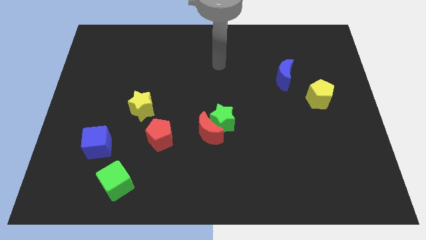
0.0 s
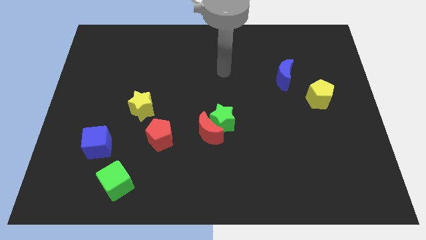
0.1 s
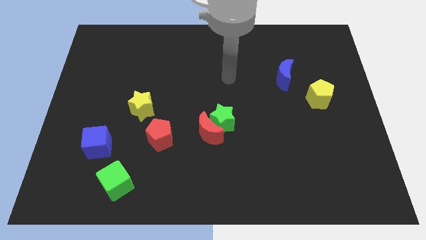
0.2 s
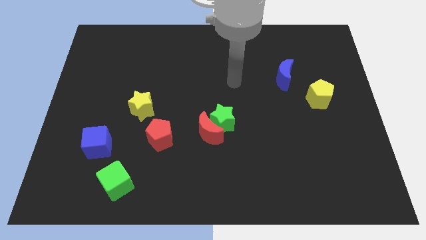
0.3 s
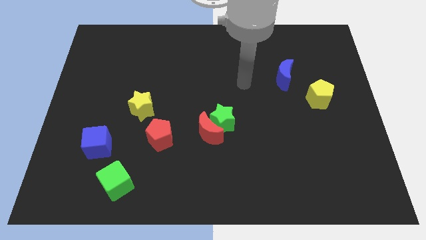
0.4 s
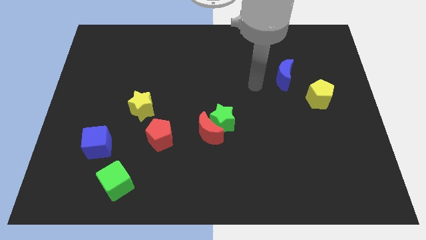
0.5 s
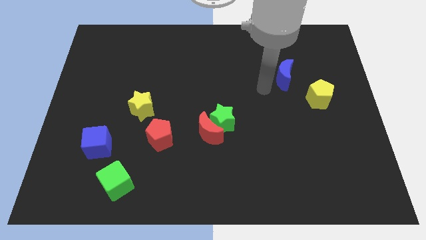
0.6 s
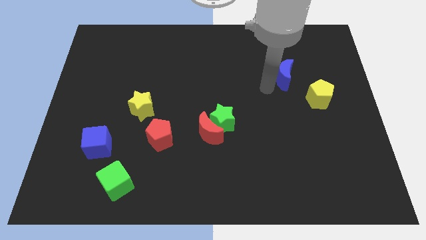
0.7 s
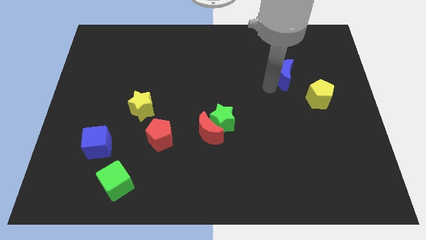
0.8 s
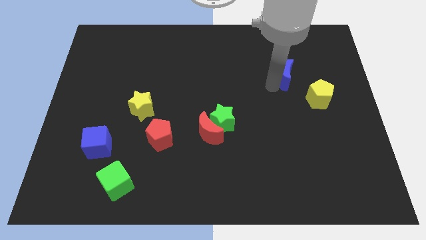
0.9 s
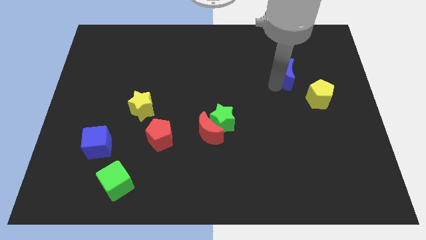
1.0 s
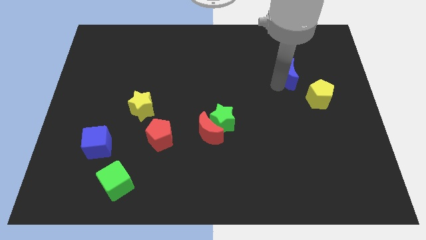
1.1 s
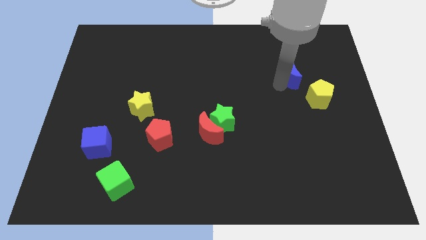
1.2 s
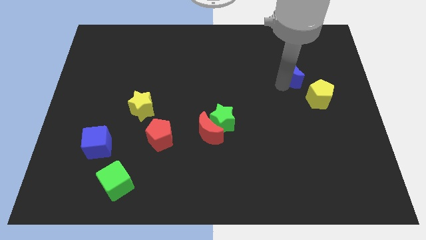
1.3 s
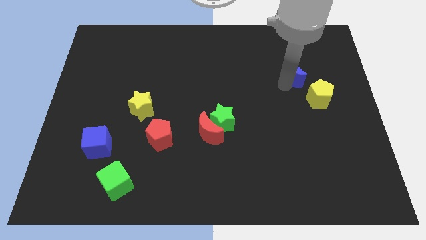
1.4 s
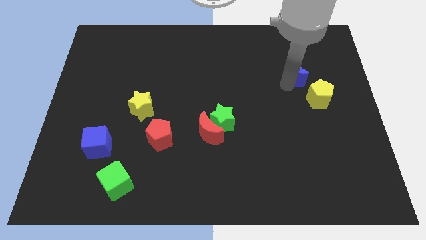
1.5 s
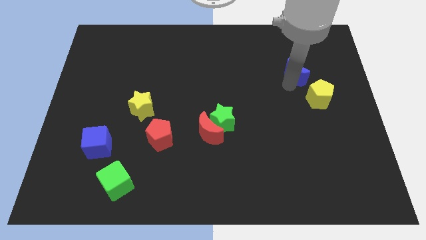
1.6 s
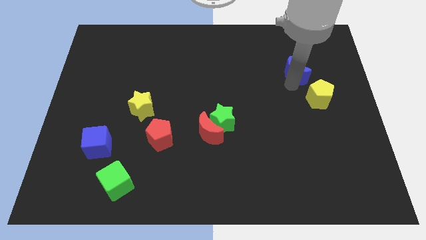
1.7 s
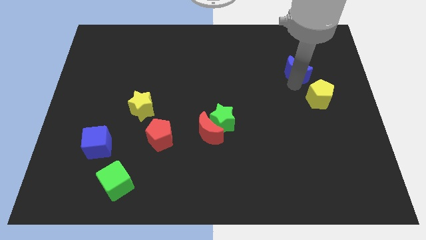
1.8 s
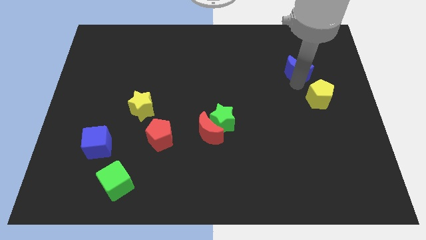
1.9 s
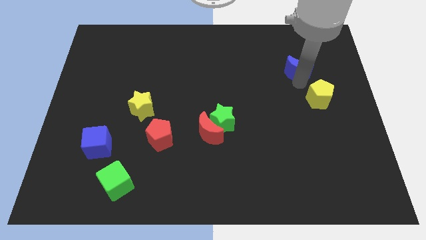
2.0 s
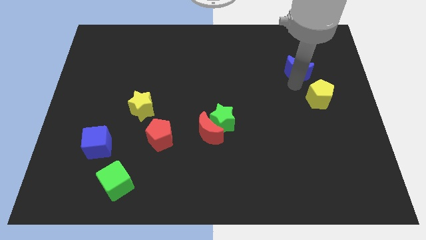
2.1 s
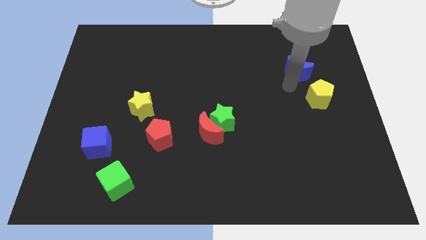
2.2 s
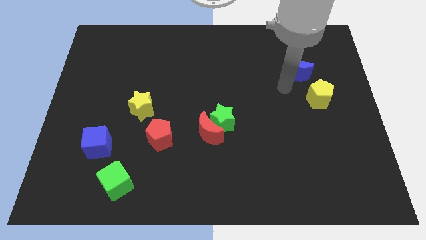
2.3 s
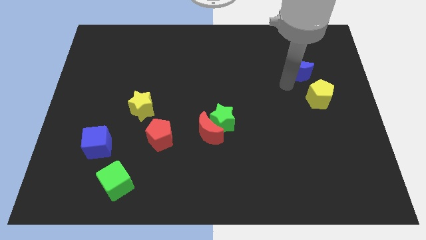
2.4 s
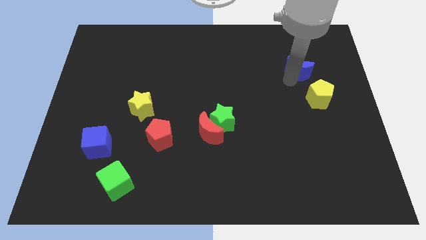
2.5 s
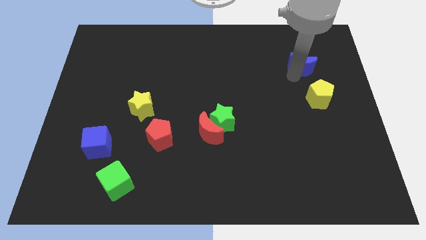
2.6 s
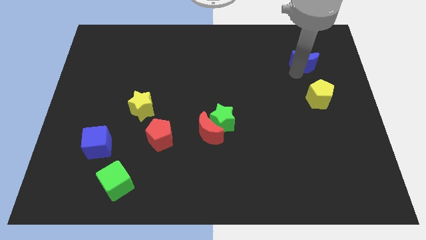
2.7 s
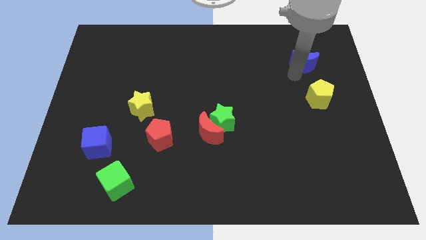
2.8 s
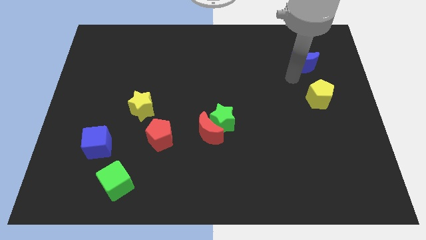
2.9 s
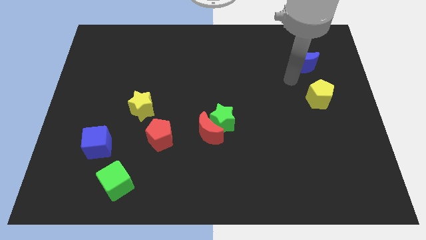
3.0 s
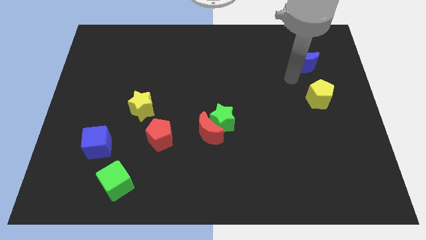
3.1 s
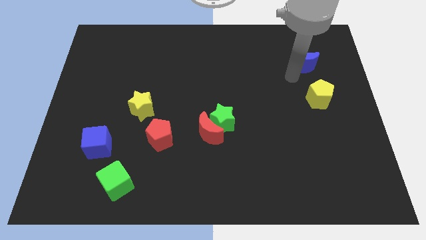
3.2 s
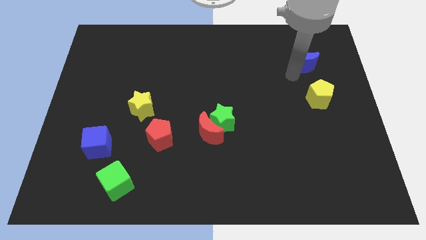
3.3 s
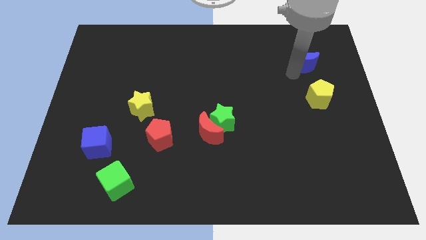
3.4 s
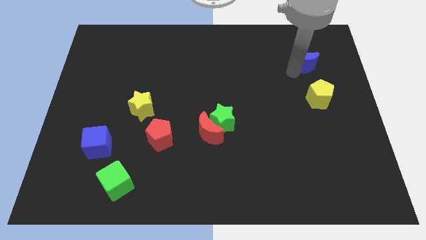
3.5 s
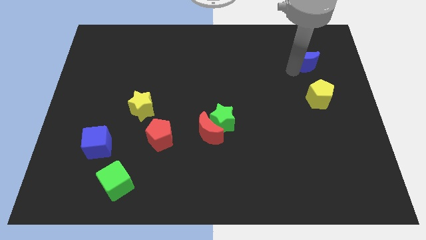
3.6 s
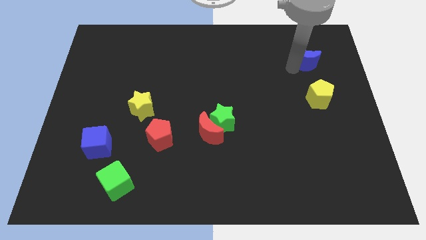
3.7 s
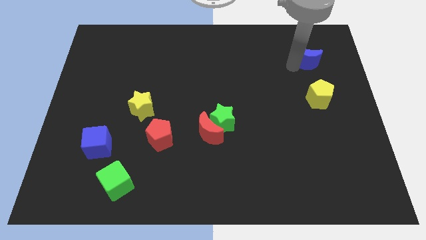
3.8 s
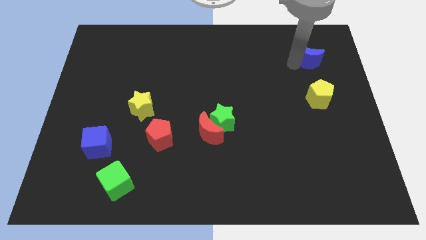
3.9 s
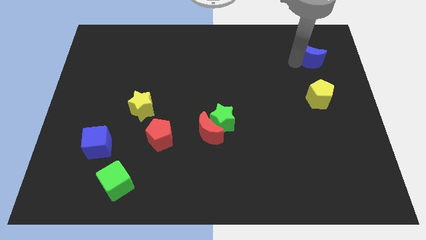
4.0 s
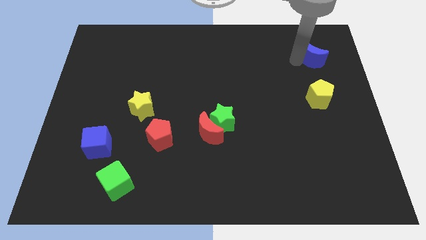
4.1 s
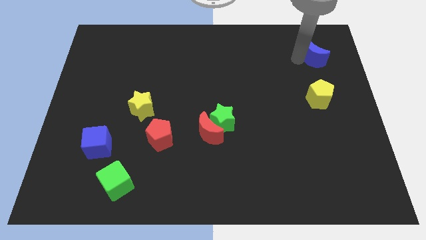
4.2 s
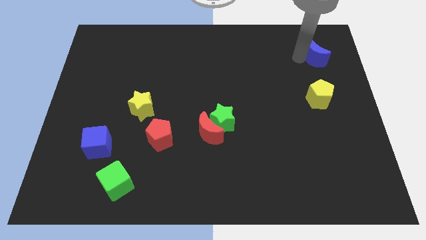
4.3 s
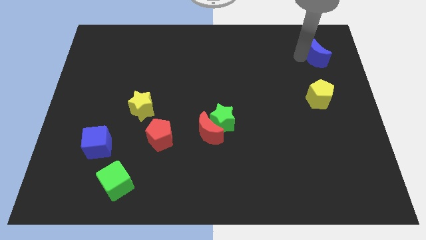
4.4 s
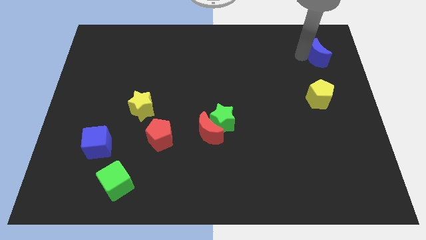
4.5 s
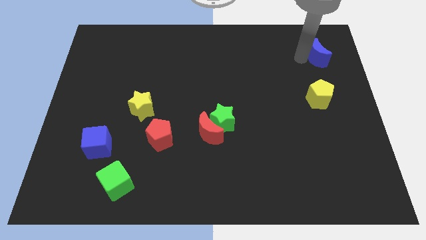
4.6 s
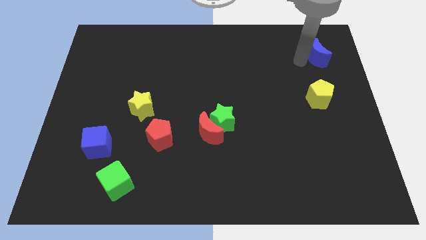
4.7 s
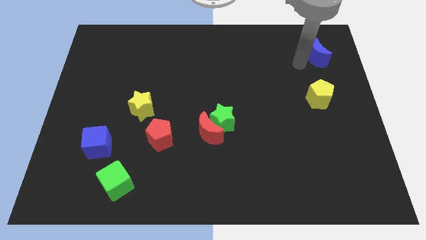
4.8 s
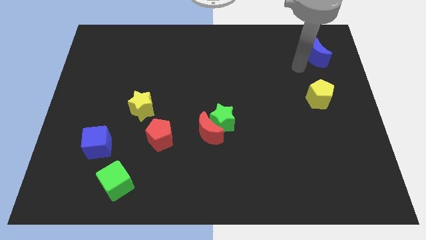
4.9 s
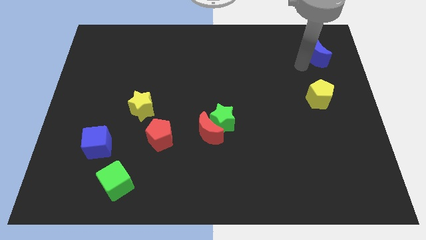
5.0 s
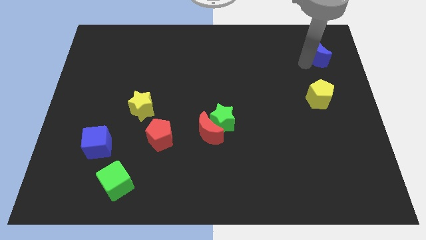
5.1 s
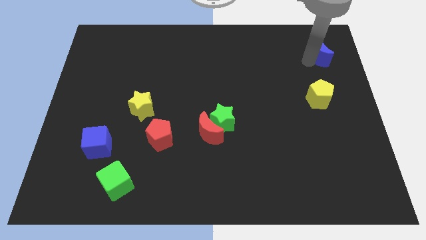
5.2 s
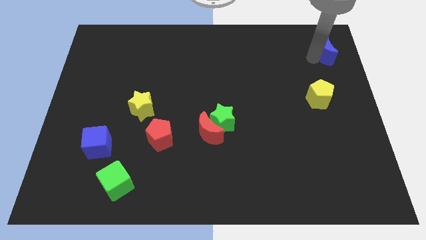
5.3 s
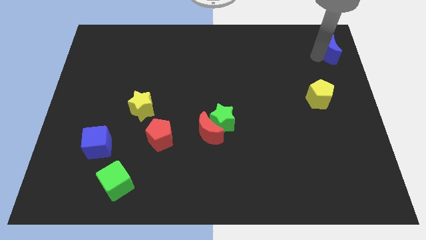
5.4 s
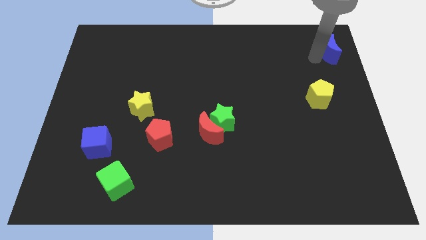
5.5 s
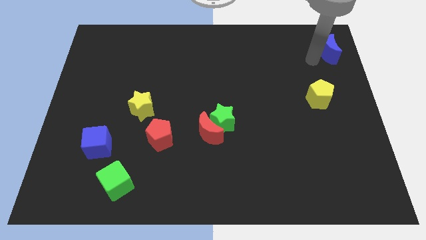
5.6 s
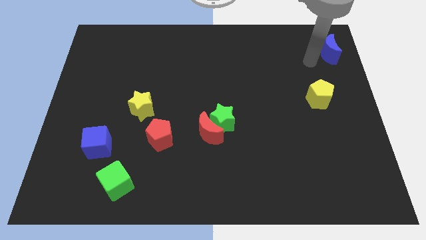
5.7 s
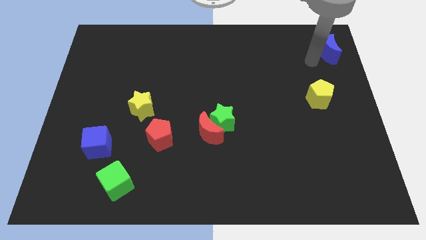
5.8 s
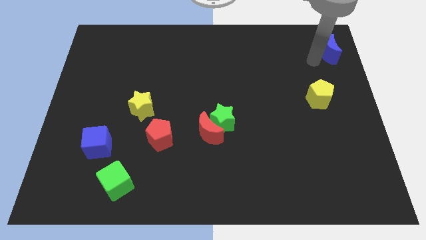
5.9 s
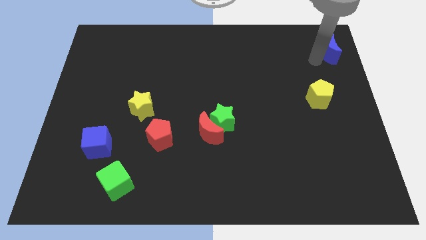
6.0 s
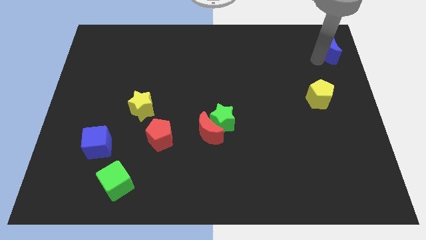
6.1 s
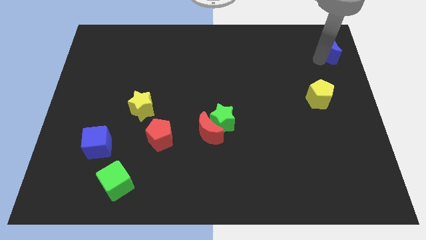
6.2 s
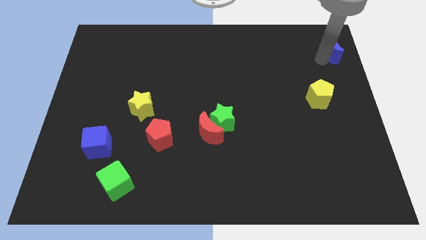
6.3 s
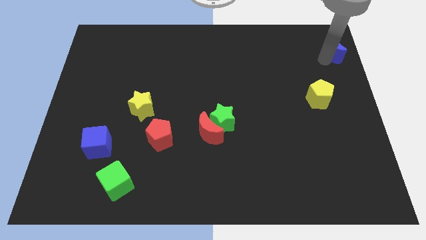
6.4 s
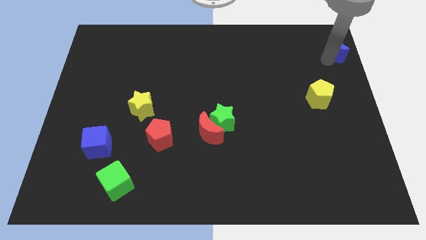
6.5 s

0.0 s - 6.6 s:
push the blue moon to the top right of the board
